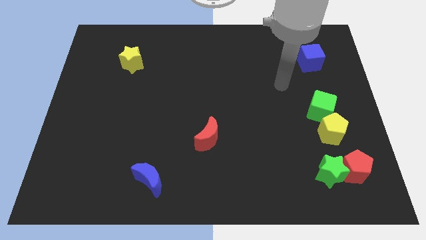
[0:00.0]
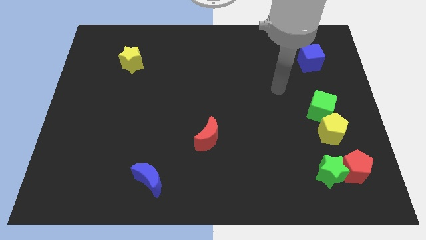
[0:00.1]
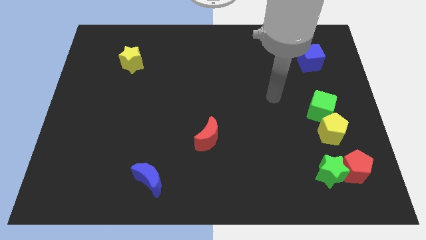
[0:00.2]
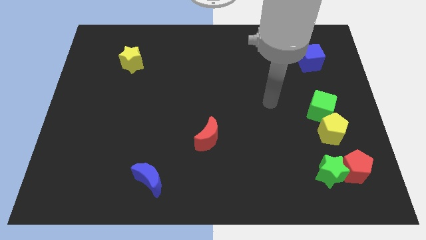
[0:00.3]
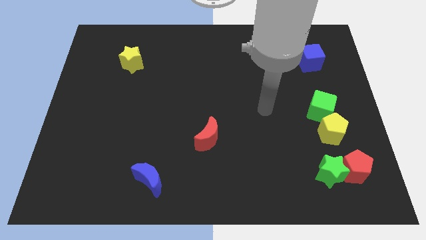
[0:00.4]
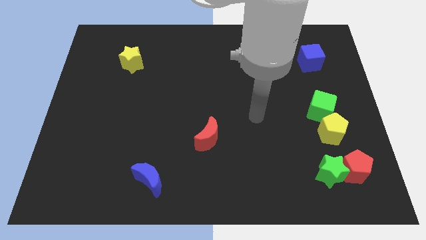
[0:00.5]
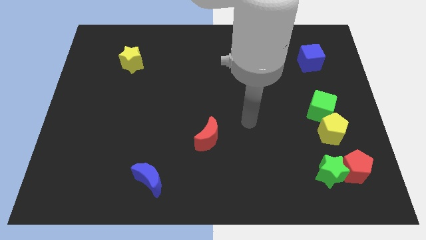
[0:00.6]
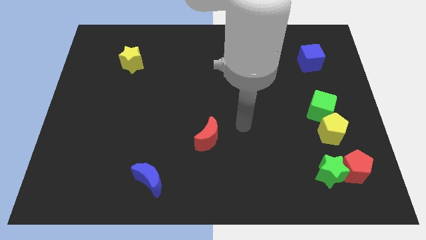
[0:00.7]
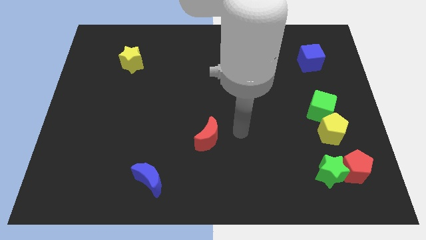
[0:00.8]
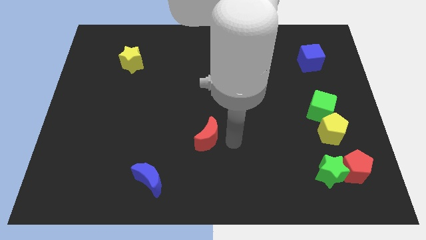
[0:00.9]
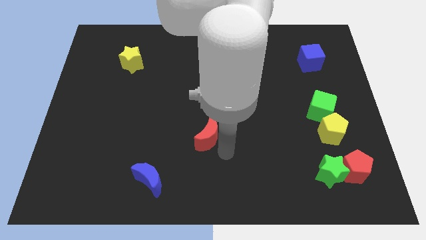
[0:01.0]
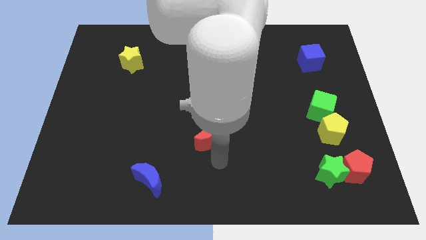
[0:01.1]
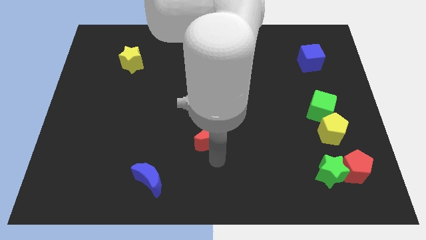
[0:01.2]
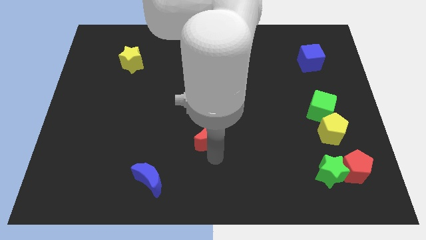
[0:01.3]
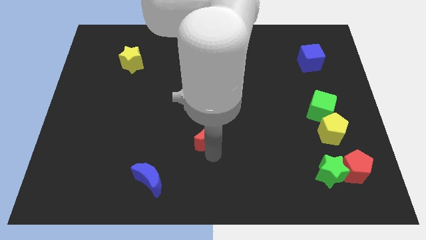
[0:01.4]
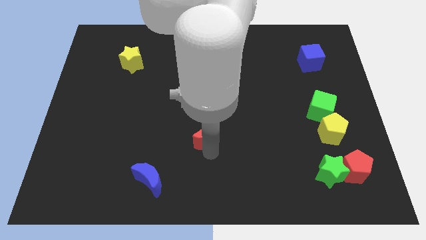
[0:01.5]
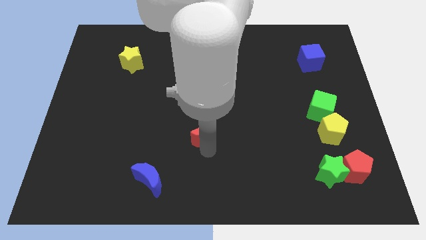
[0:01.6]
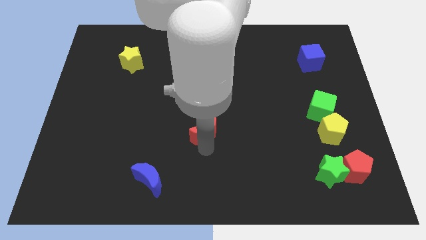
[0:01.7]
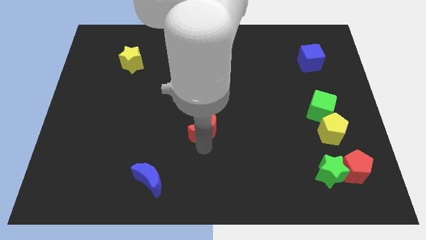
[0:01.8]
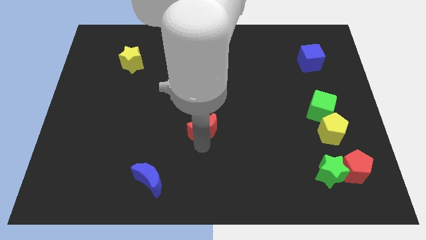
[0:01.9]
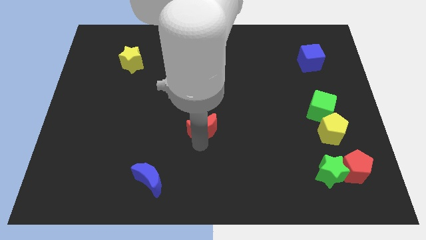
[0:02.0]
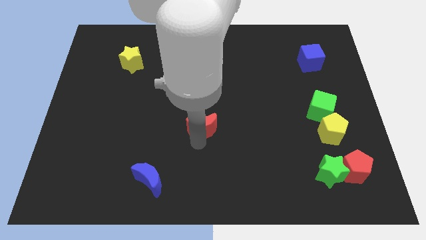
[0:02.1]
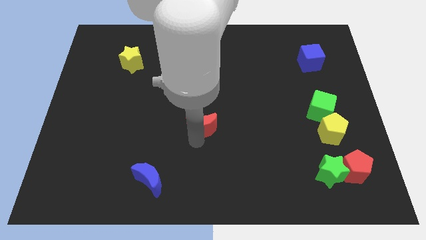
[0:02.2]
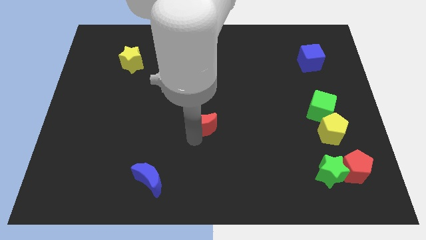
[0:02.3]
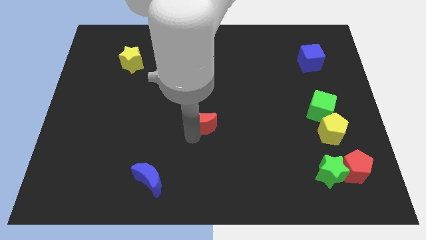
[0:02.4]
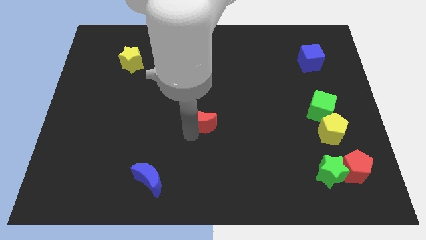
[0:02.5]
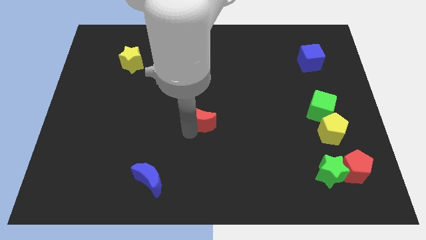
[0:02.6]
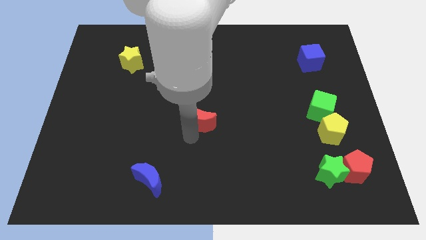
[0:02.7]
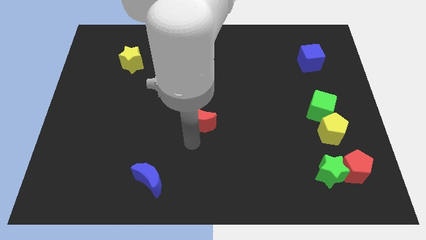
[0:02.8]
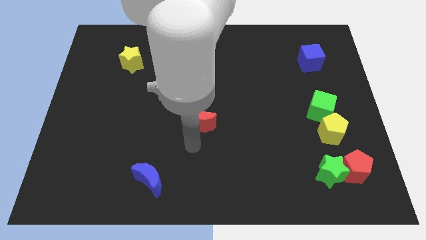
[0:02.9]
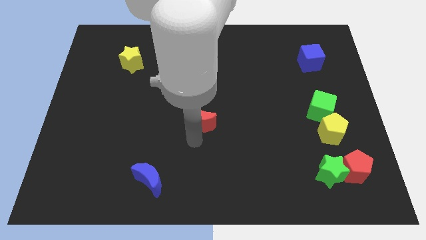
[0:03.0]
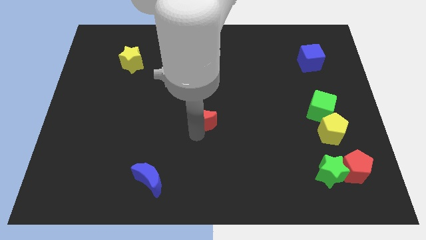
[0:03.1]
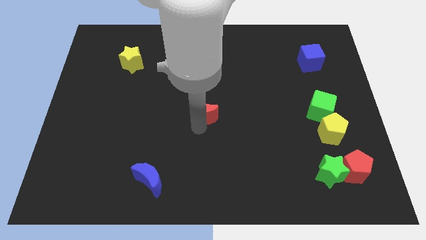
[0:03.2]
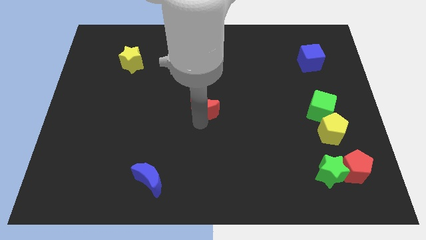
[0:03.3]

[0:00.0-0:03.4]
slightly push the red moon upwards

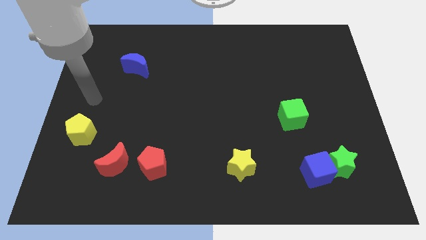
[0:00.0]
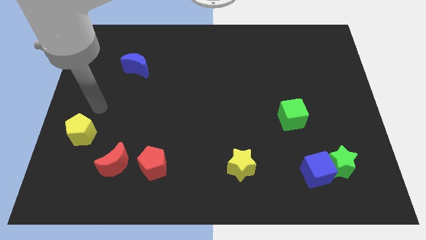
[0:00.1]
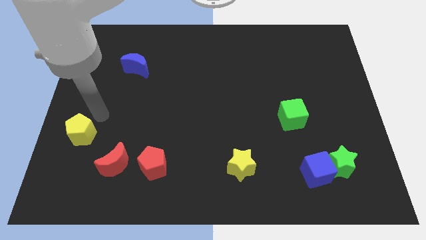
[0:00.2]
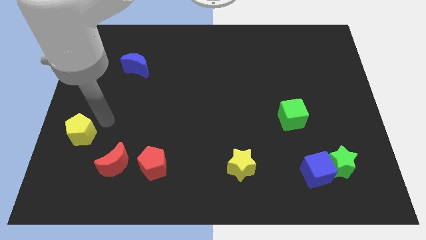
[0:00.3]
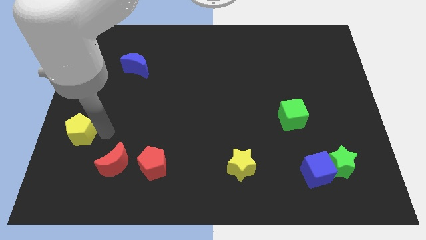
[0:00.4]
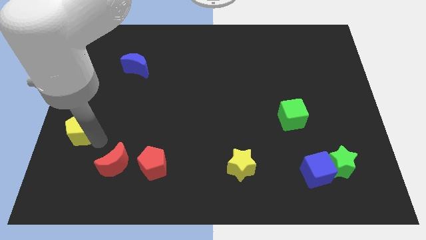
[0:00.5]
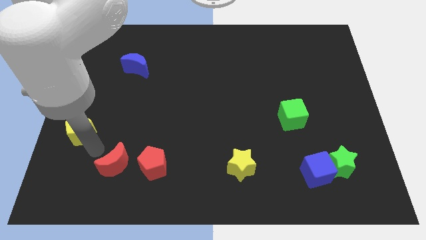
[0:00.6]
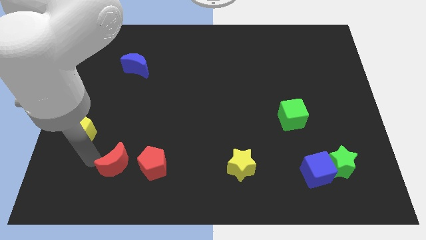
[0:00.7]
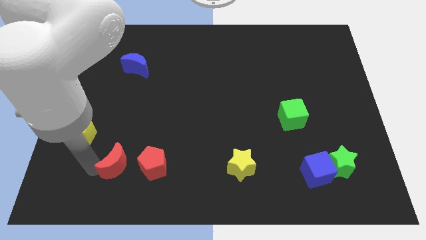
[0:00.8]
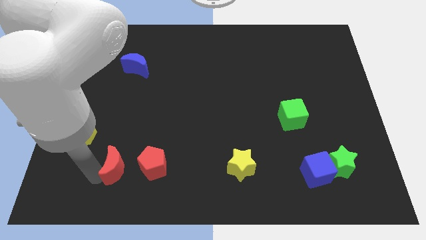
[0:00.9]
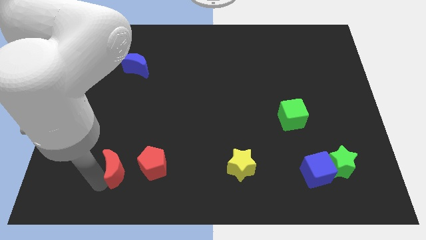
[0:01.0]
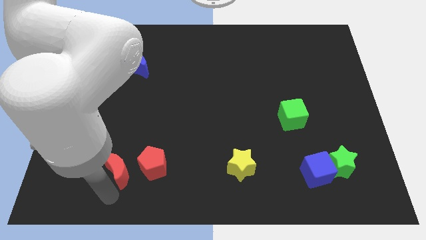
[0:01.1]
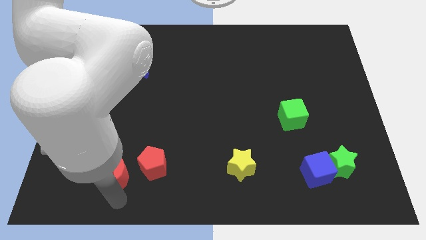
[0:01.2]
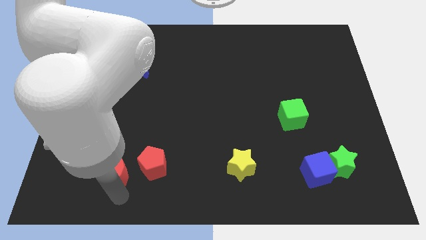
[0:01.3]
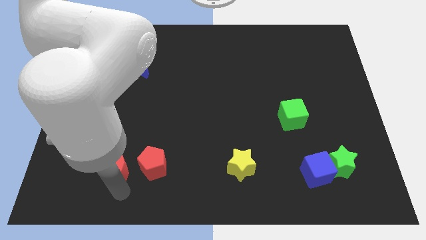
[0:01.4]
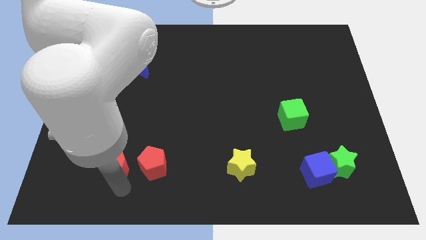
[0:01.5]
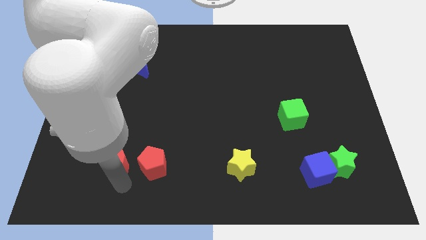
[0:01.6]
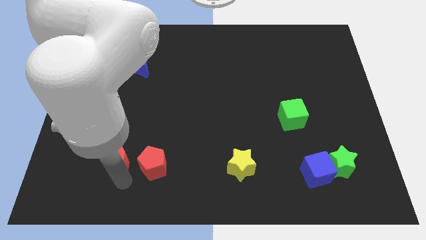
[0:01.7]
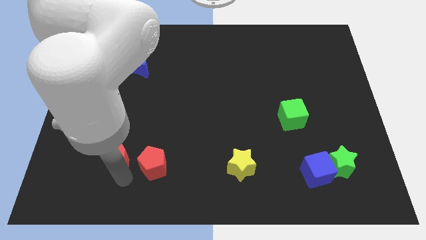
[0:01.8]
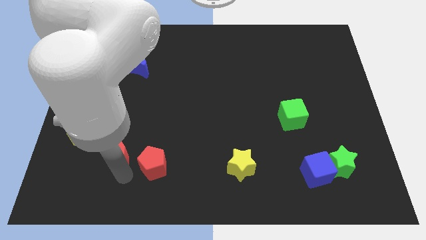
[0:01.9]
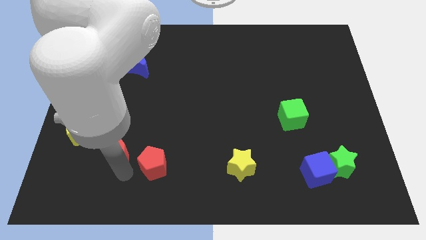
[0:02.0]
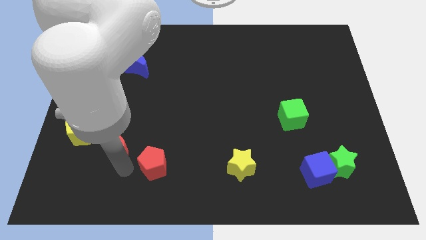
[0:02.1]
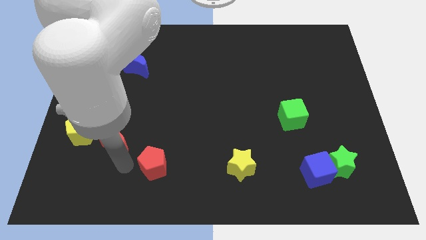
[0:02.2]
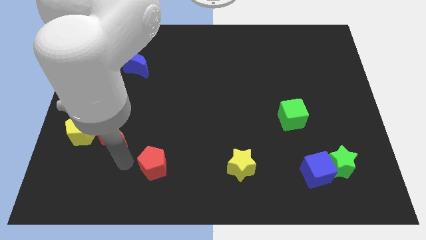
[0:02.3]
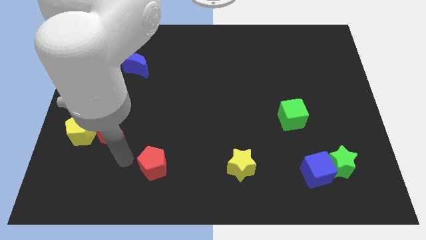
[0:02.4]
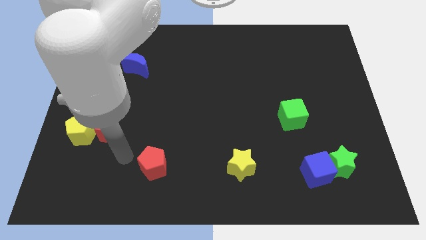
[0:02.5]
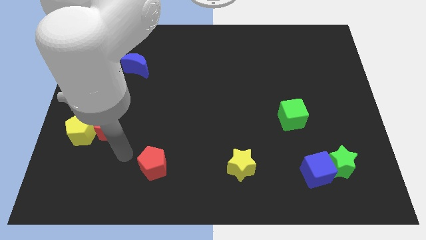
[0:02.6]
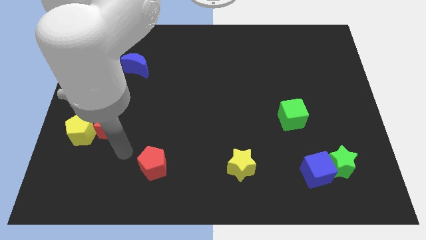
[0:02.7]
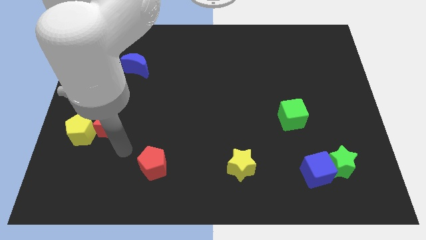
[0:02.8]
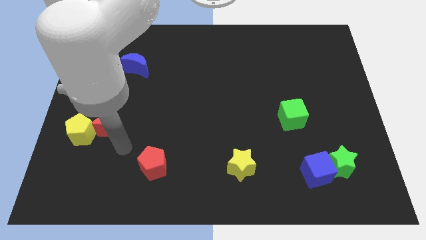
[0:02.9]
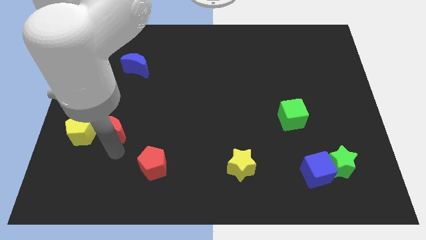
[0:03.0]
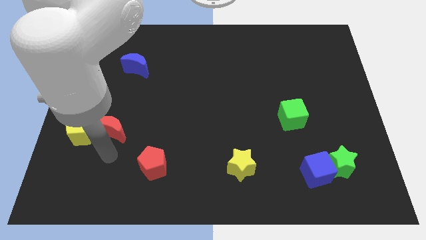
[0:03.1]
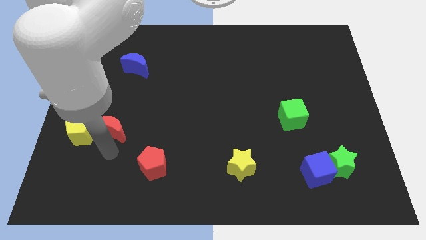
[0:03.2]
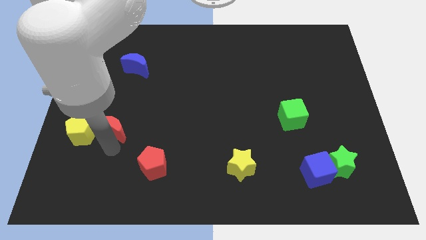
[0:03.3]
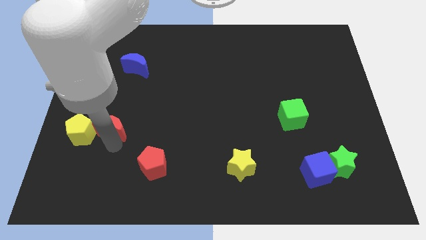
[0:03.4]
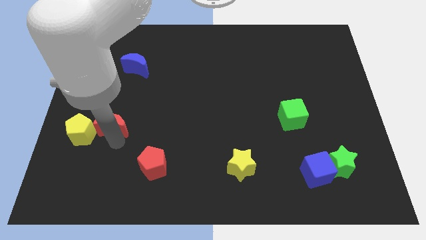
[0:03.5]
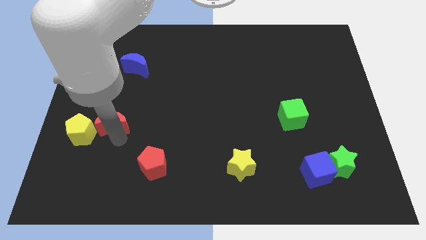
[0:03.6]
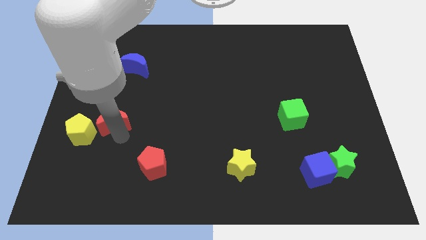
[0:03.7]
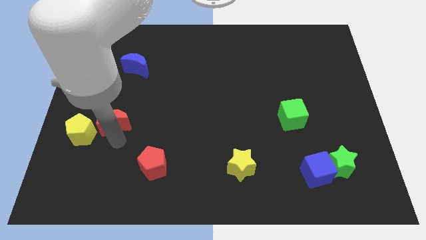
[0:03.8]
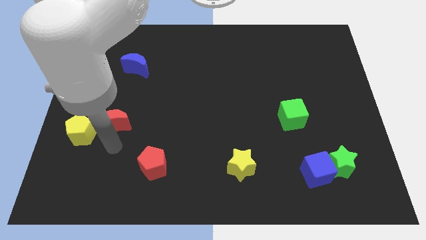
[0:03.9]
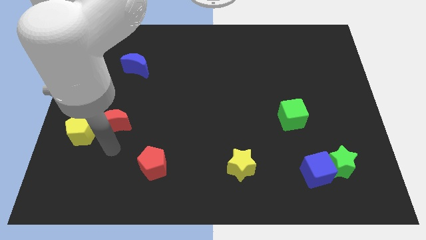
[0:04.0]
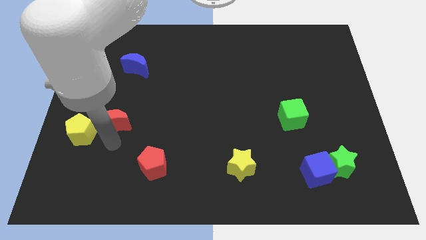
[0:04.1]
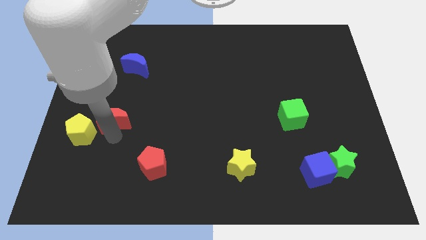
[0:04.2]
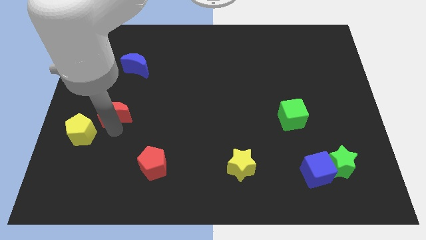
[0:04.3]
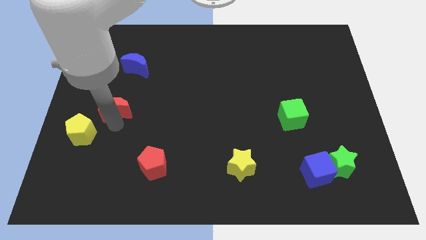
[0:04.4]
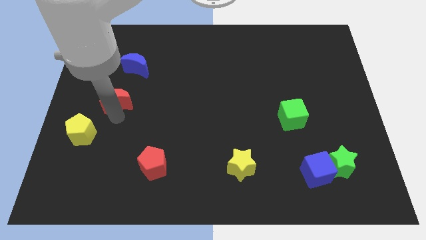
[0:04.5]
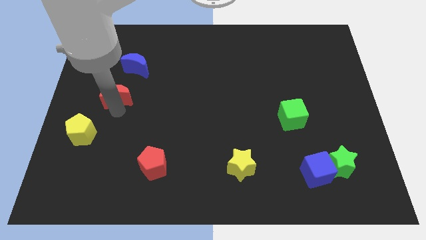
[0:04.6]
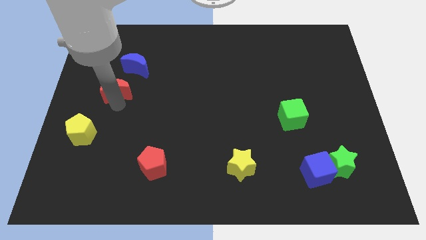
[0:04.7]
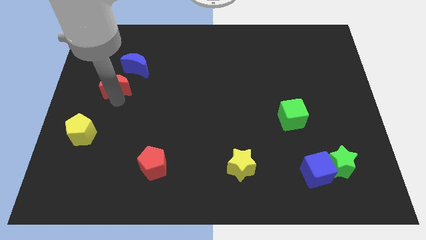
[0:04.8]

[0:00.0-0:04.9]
slide the red moon up
